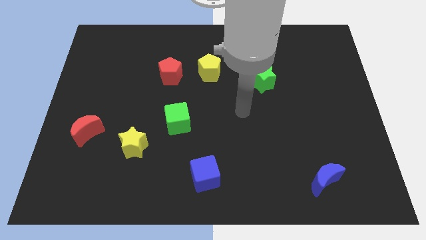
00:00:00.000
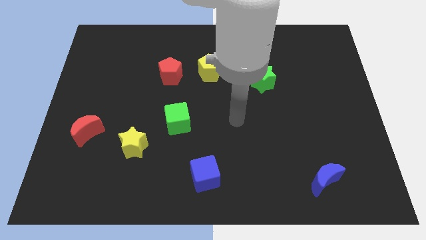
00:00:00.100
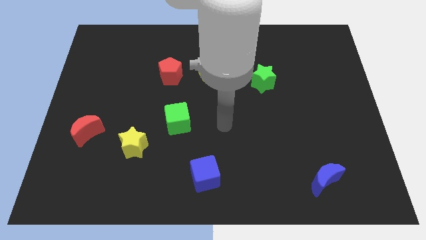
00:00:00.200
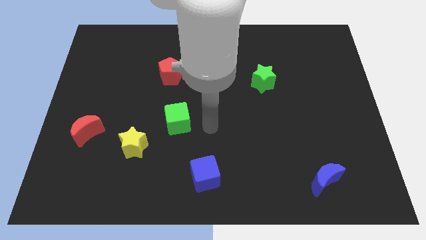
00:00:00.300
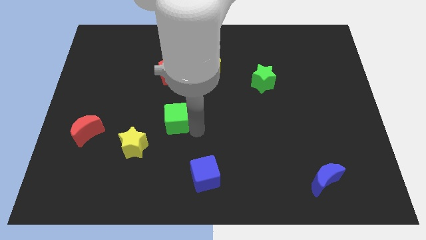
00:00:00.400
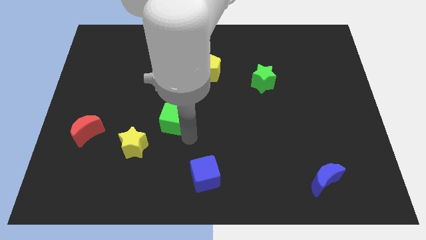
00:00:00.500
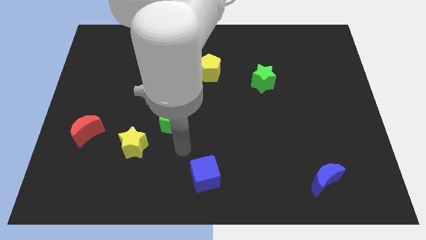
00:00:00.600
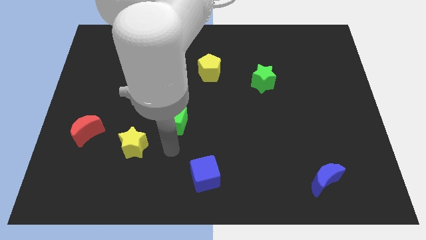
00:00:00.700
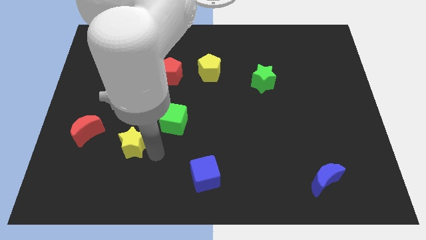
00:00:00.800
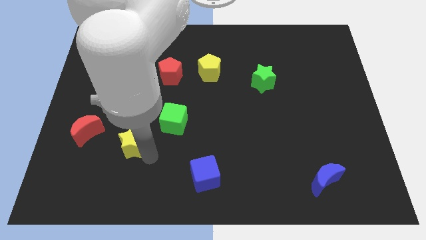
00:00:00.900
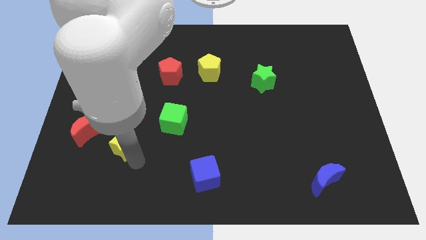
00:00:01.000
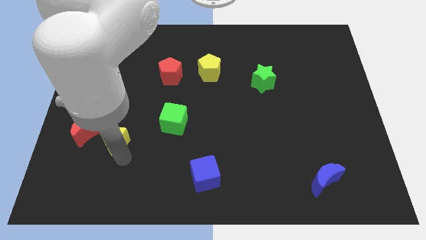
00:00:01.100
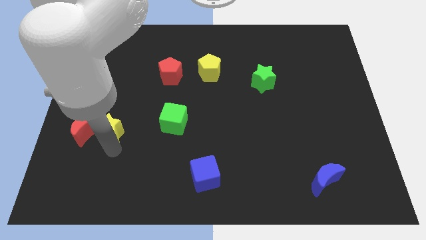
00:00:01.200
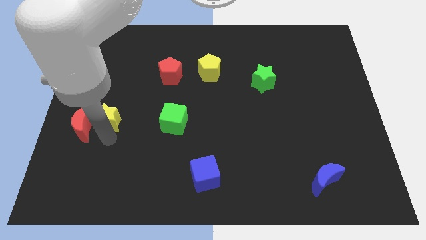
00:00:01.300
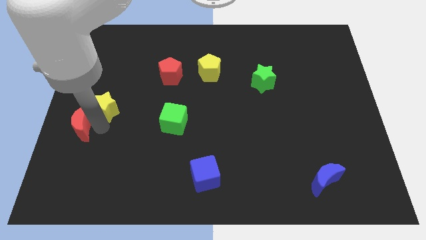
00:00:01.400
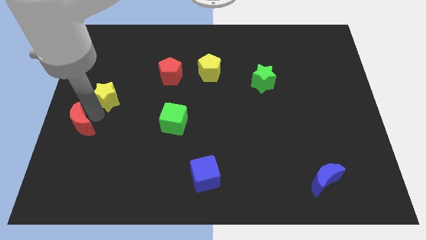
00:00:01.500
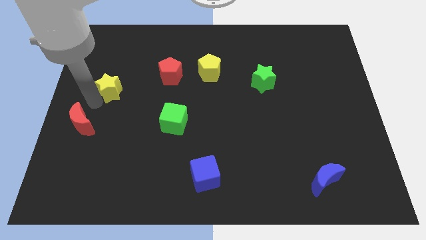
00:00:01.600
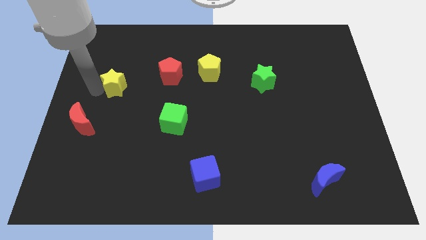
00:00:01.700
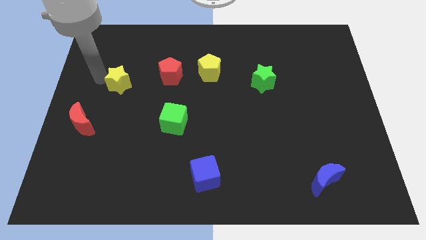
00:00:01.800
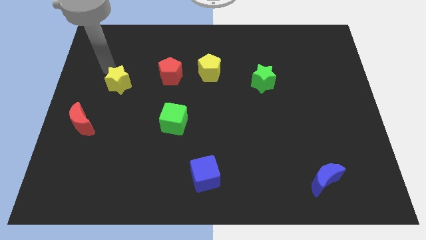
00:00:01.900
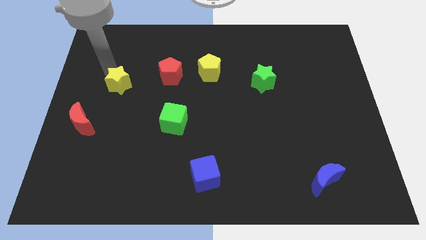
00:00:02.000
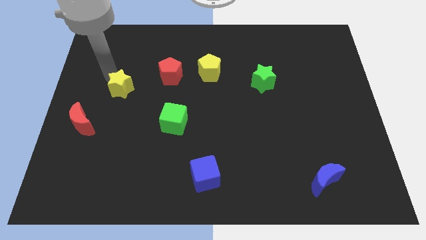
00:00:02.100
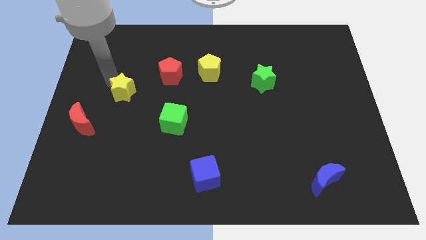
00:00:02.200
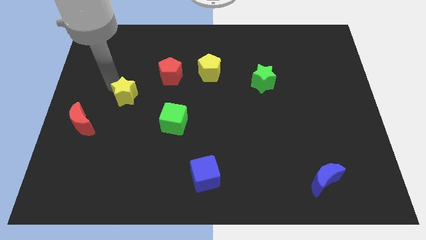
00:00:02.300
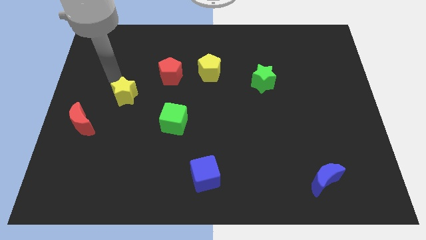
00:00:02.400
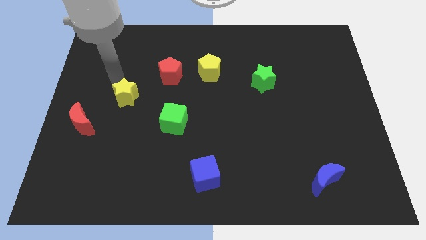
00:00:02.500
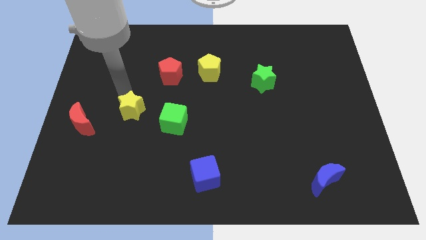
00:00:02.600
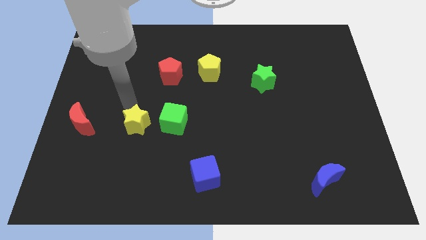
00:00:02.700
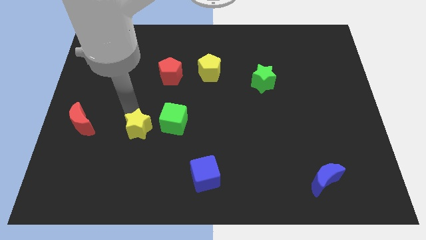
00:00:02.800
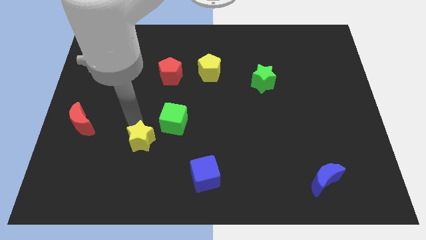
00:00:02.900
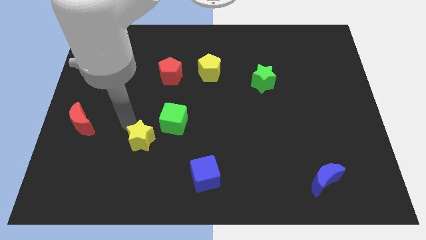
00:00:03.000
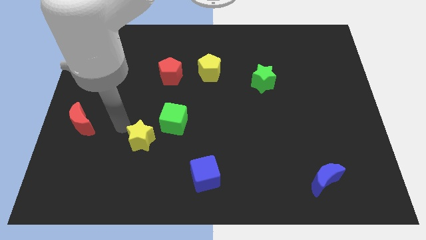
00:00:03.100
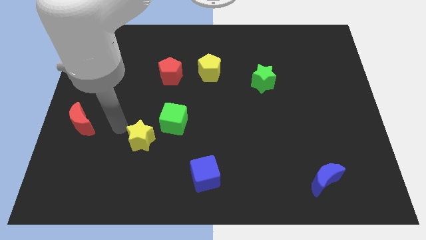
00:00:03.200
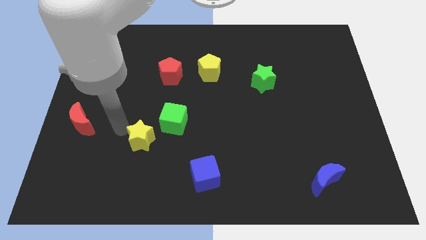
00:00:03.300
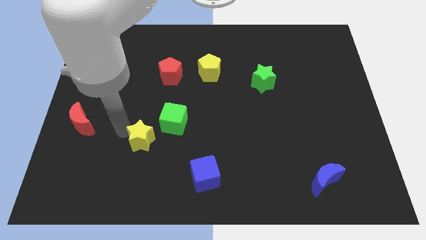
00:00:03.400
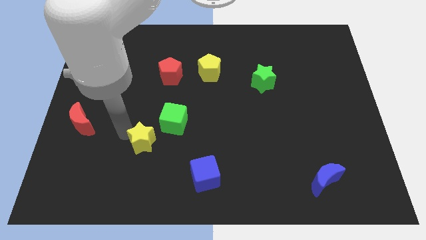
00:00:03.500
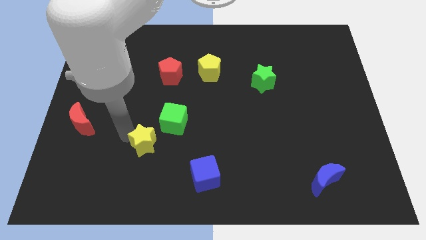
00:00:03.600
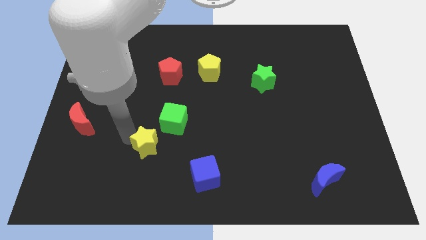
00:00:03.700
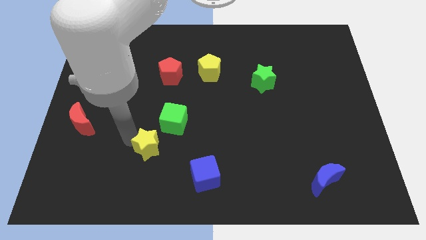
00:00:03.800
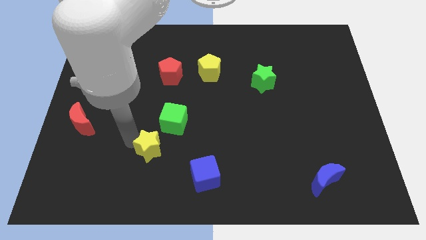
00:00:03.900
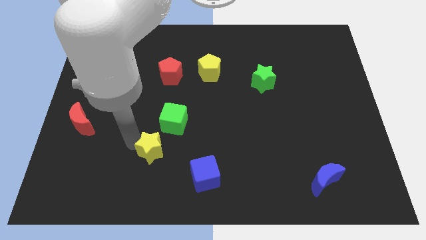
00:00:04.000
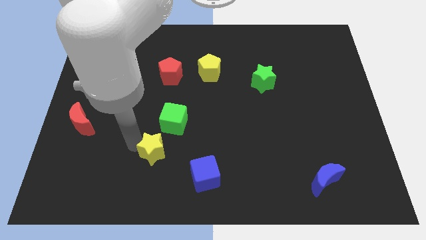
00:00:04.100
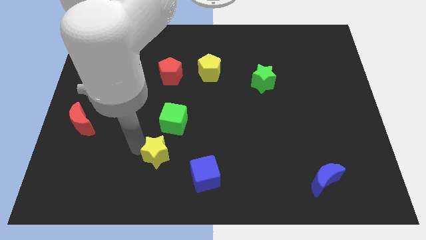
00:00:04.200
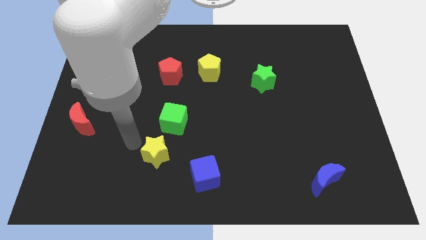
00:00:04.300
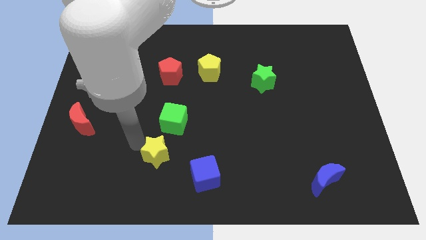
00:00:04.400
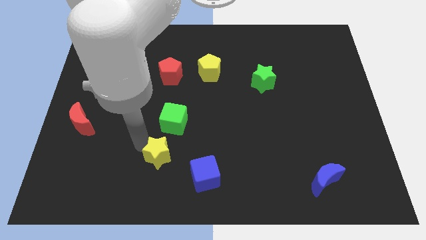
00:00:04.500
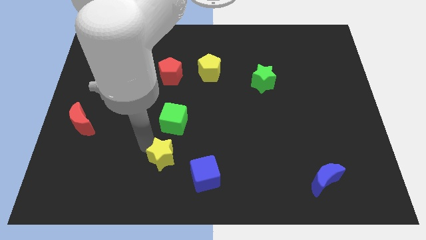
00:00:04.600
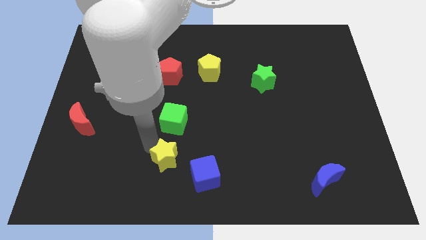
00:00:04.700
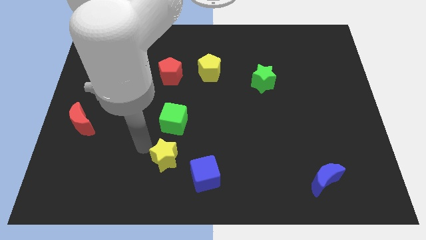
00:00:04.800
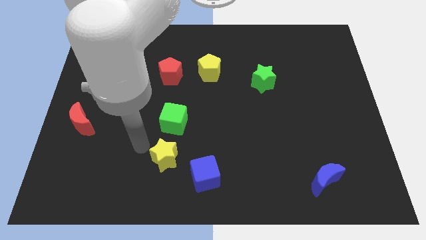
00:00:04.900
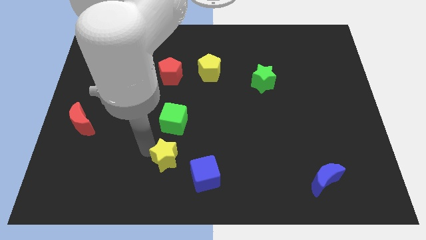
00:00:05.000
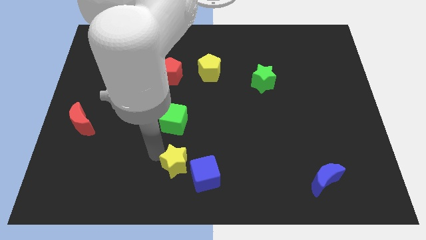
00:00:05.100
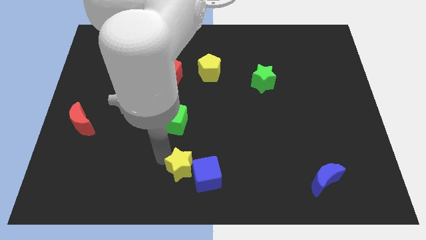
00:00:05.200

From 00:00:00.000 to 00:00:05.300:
move the yellow star close to the blue cube

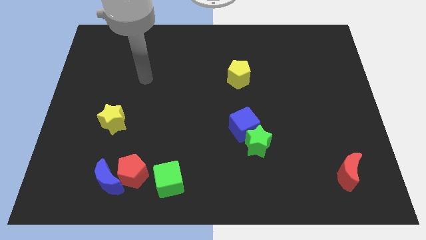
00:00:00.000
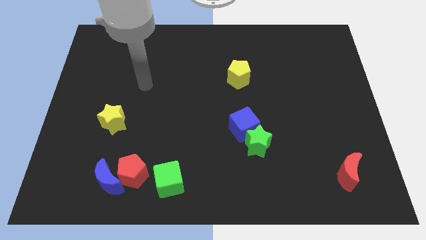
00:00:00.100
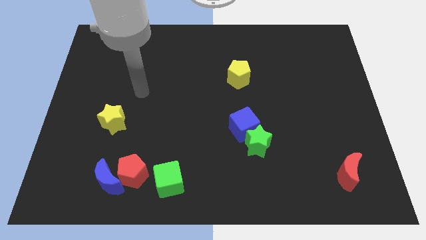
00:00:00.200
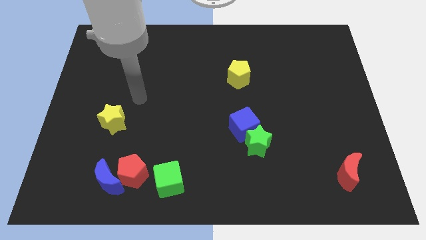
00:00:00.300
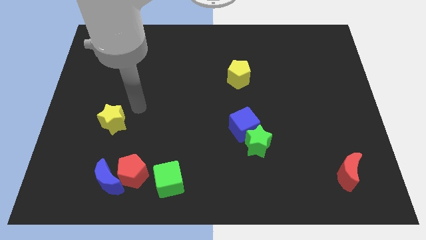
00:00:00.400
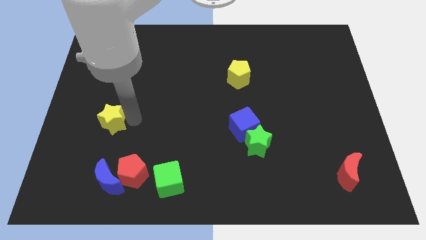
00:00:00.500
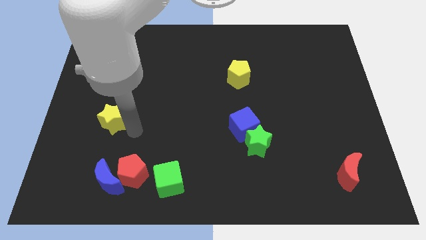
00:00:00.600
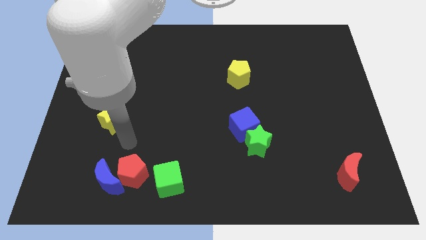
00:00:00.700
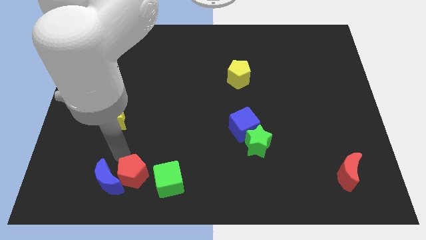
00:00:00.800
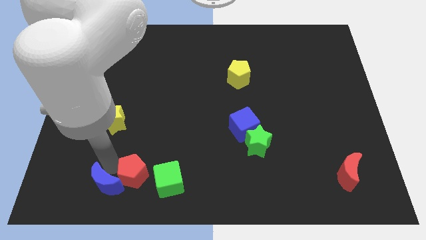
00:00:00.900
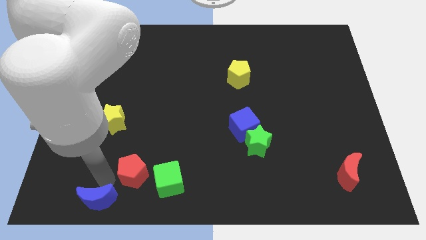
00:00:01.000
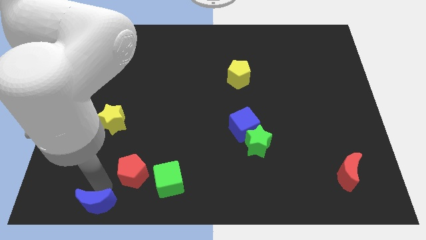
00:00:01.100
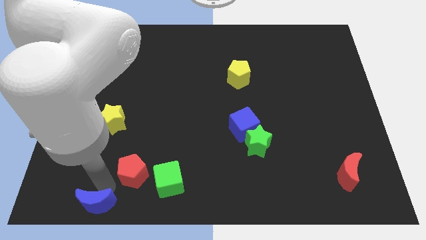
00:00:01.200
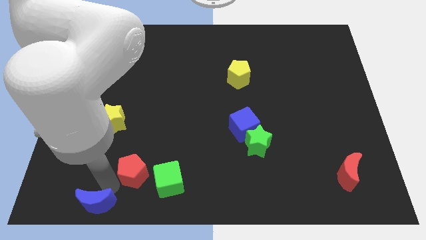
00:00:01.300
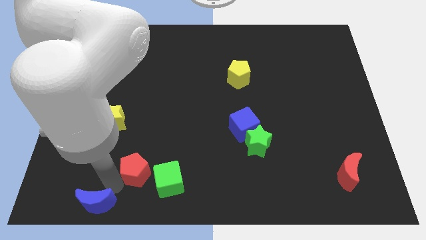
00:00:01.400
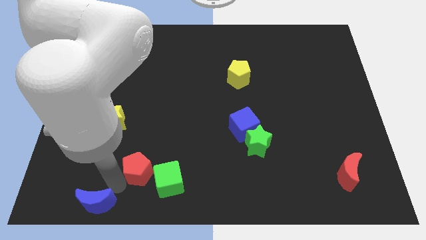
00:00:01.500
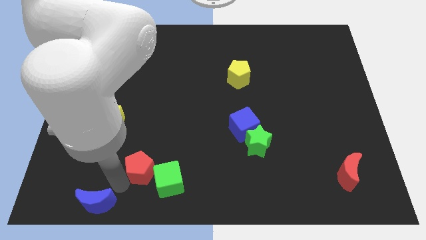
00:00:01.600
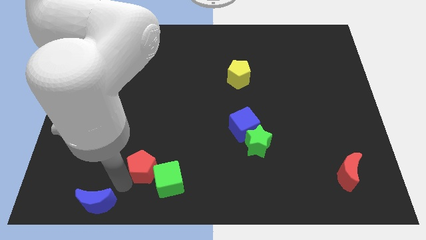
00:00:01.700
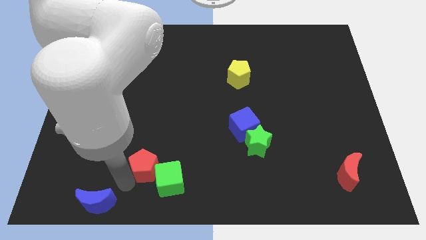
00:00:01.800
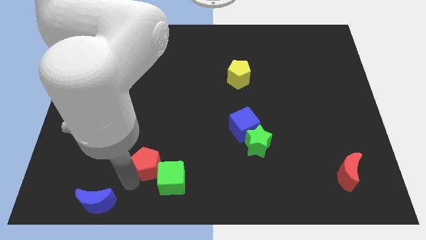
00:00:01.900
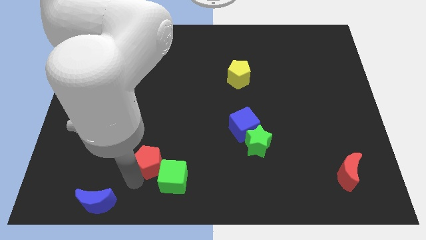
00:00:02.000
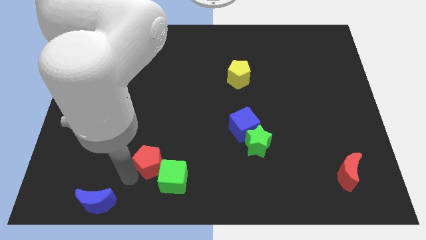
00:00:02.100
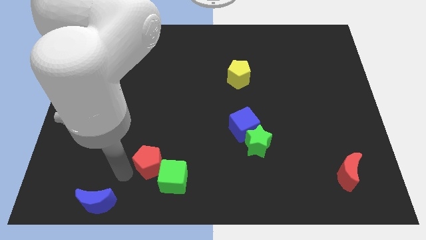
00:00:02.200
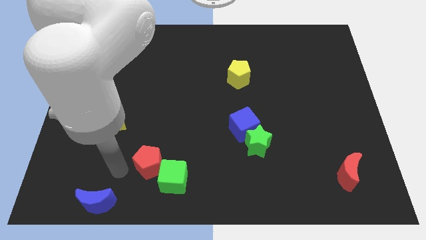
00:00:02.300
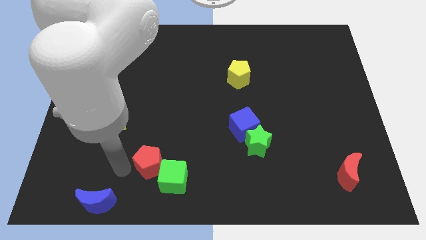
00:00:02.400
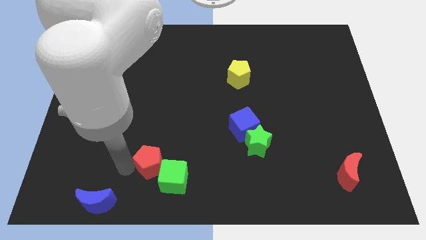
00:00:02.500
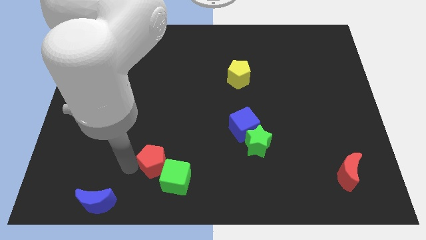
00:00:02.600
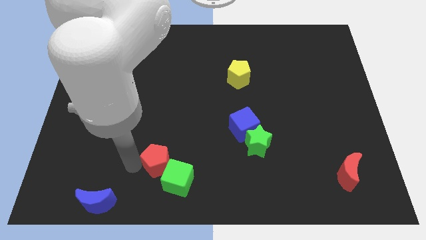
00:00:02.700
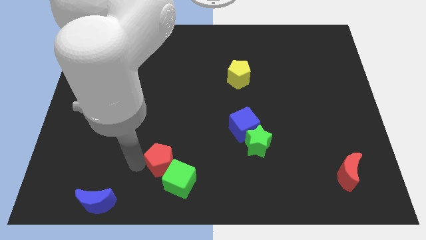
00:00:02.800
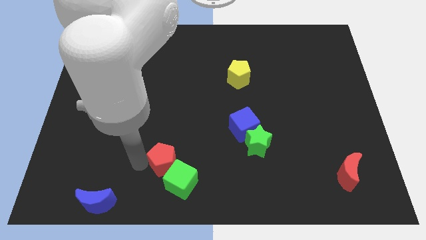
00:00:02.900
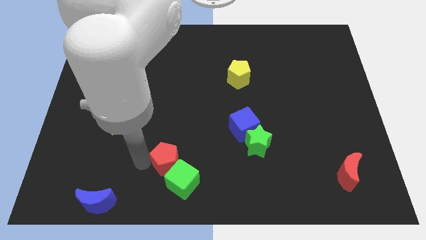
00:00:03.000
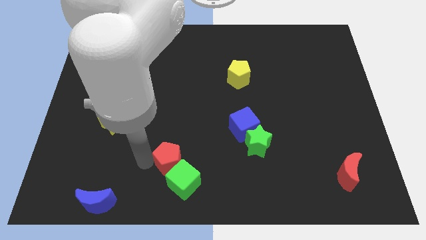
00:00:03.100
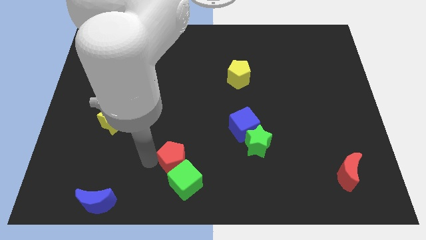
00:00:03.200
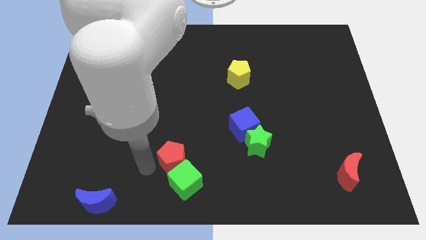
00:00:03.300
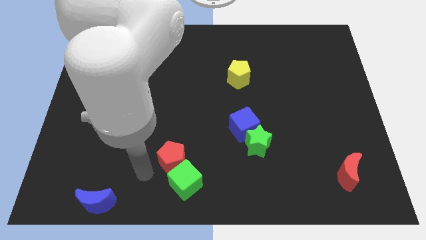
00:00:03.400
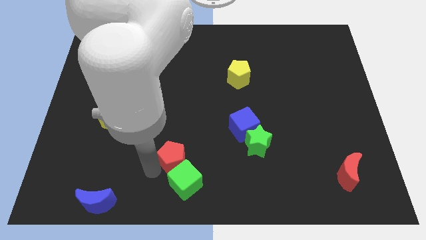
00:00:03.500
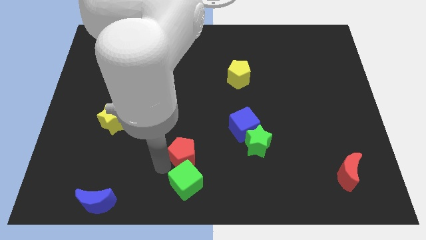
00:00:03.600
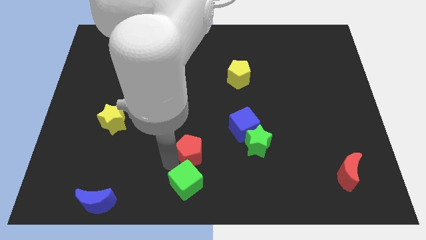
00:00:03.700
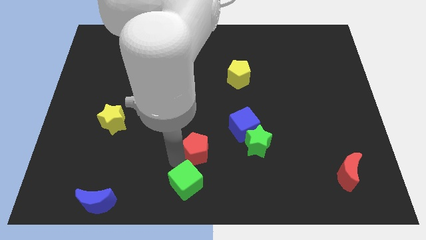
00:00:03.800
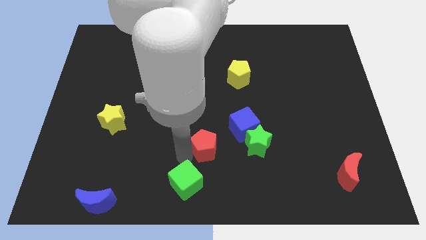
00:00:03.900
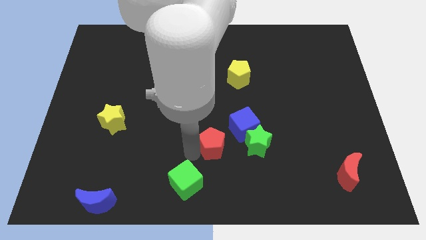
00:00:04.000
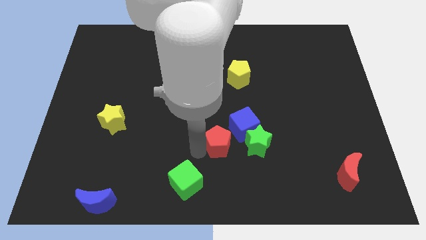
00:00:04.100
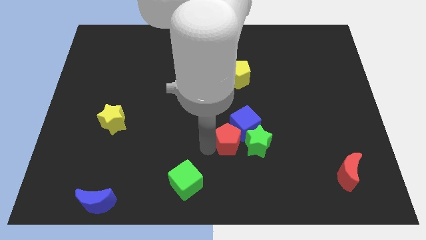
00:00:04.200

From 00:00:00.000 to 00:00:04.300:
move the red pentagon to the green star
